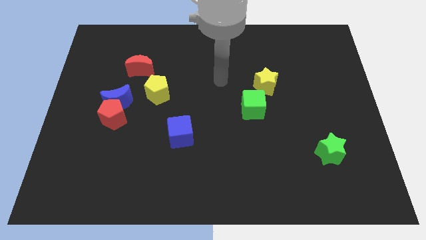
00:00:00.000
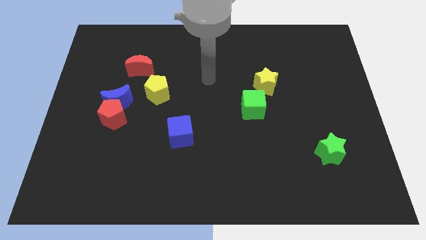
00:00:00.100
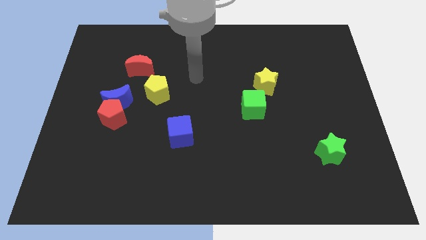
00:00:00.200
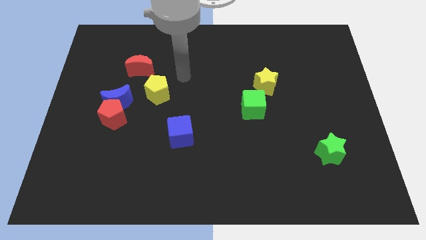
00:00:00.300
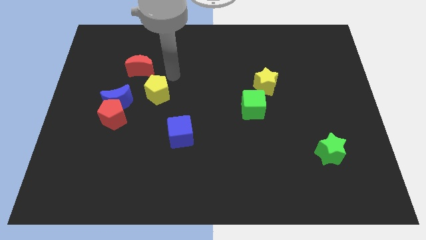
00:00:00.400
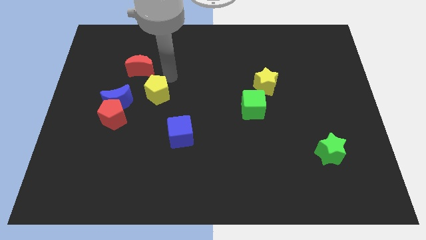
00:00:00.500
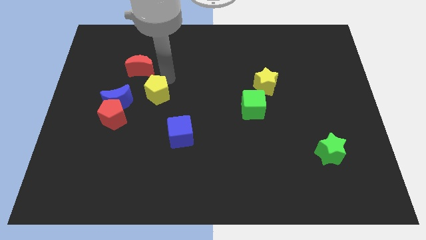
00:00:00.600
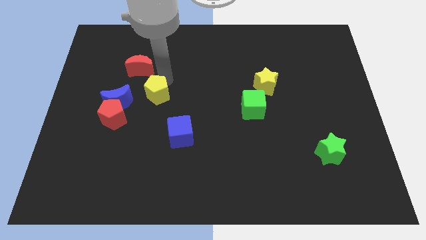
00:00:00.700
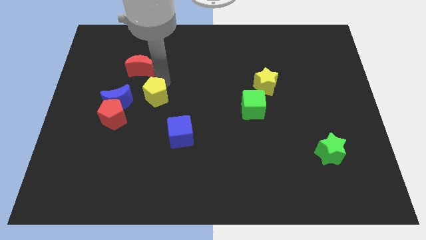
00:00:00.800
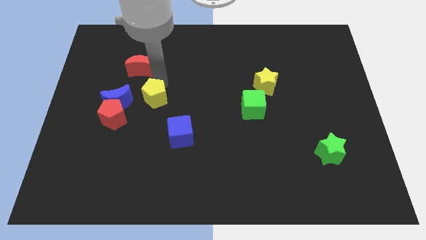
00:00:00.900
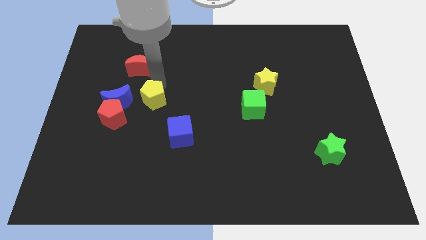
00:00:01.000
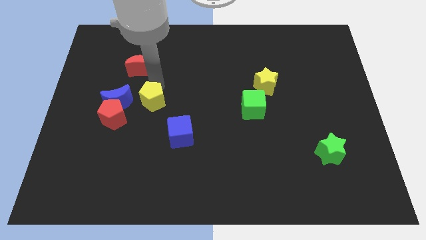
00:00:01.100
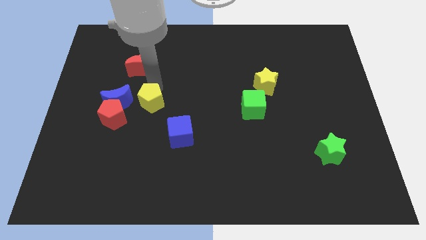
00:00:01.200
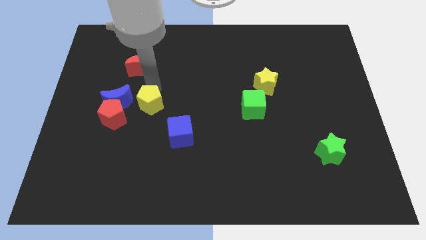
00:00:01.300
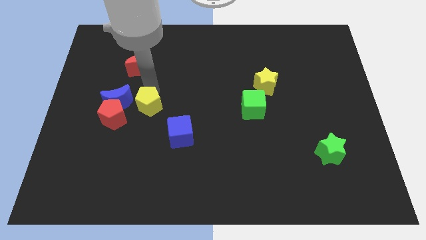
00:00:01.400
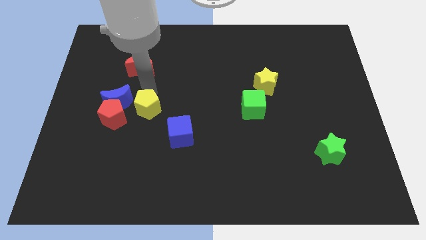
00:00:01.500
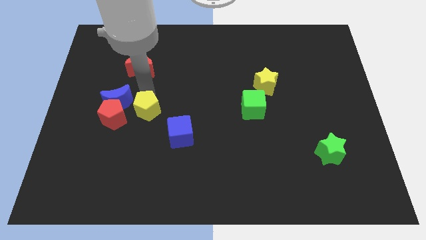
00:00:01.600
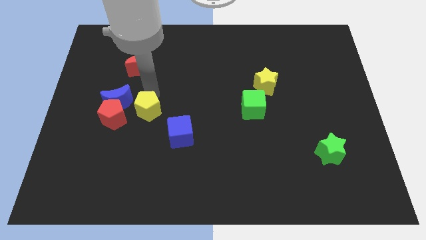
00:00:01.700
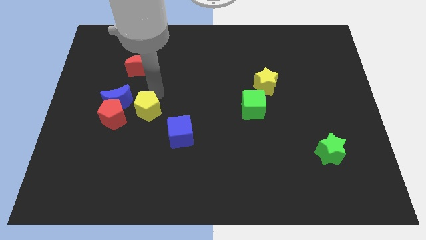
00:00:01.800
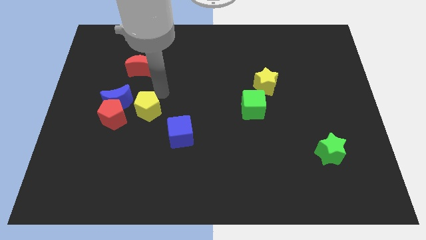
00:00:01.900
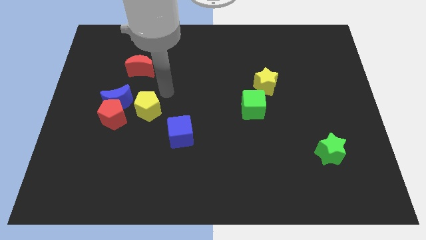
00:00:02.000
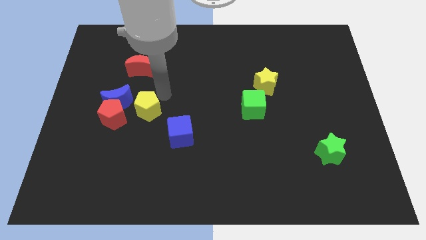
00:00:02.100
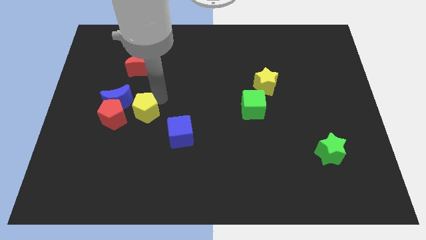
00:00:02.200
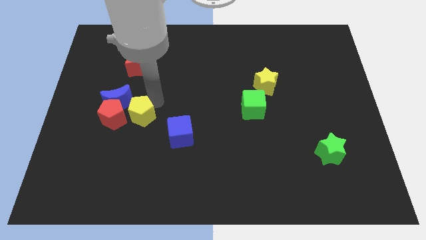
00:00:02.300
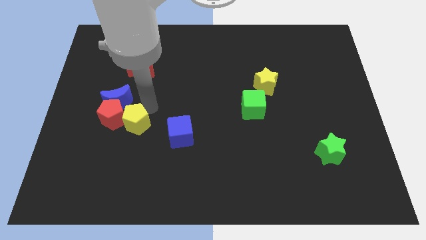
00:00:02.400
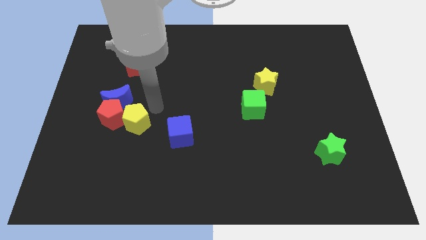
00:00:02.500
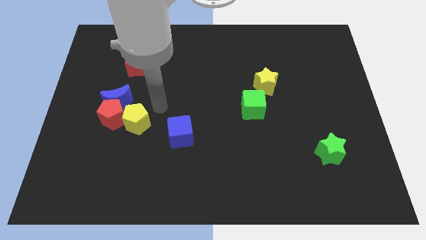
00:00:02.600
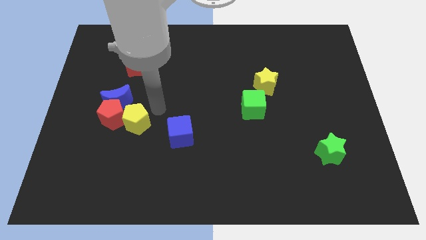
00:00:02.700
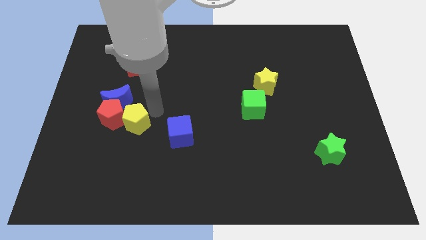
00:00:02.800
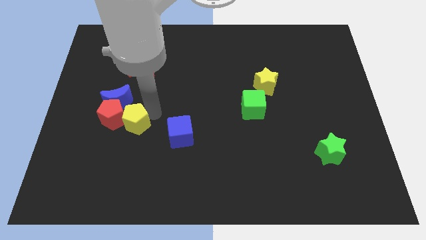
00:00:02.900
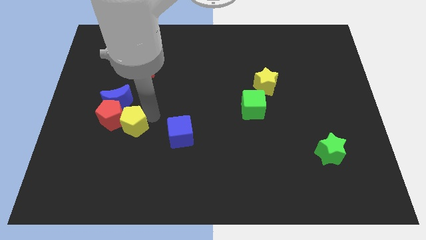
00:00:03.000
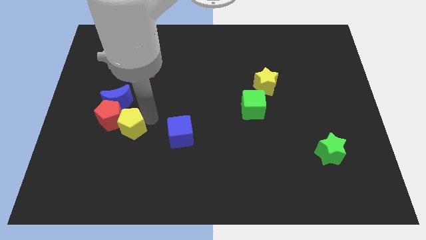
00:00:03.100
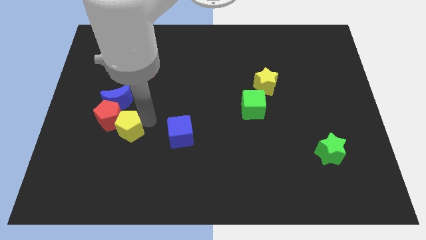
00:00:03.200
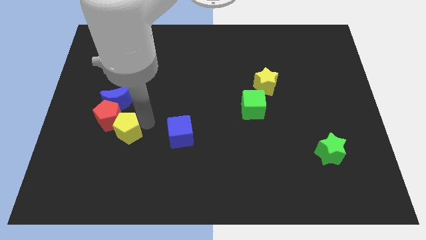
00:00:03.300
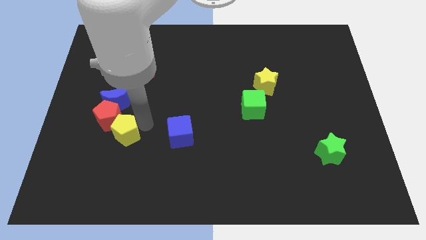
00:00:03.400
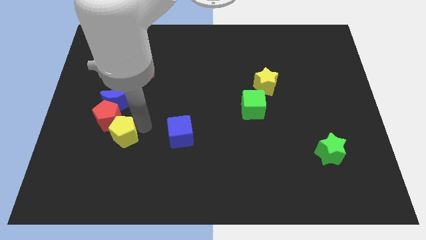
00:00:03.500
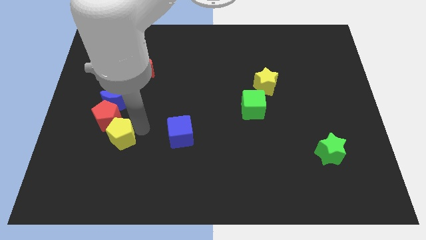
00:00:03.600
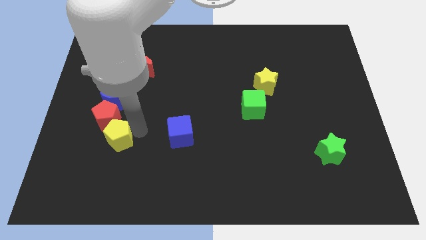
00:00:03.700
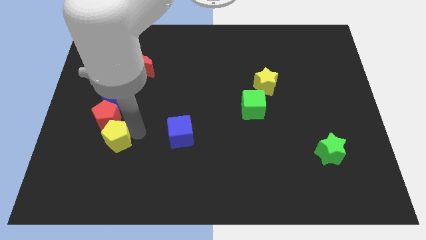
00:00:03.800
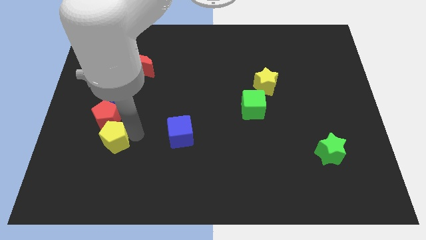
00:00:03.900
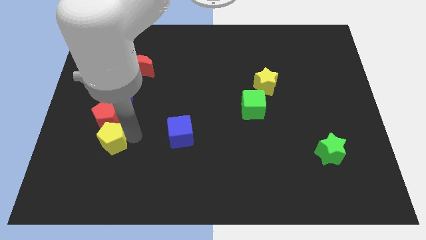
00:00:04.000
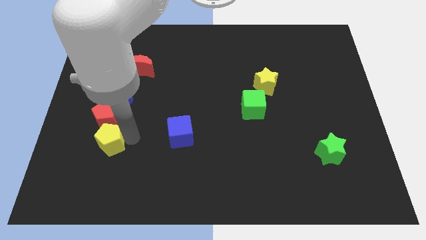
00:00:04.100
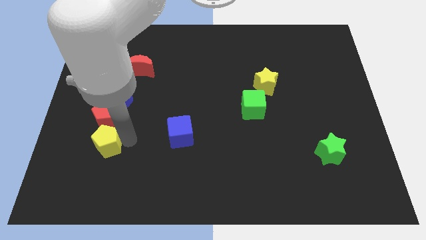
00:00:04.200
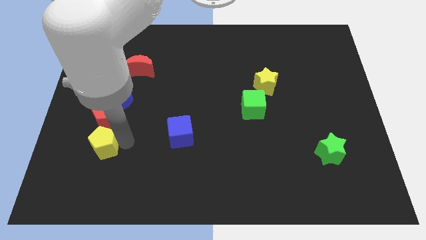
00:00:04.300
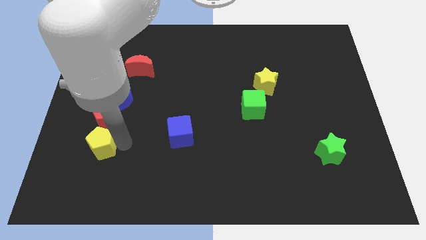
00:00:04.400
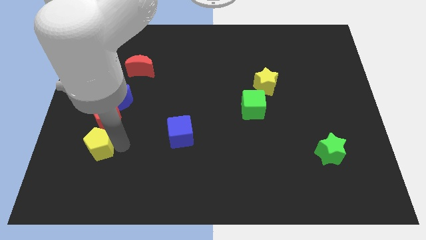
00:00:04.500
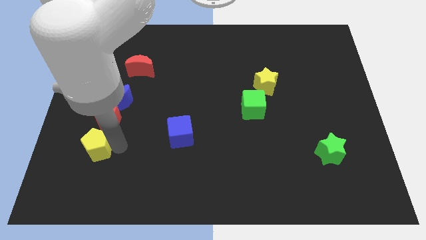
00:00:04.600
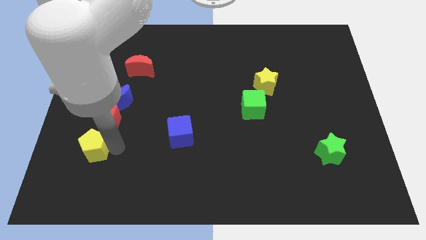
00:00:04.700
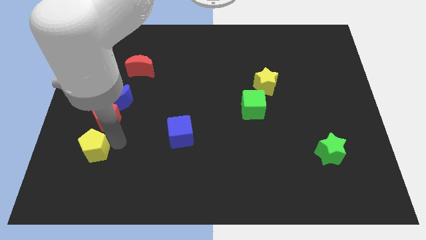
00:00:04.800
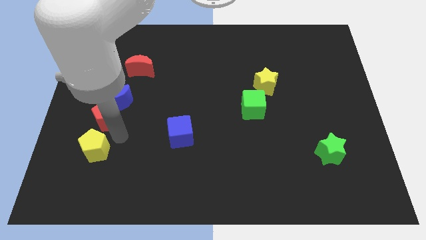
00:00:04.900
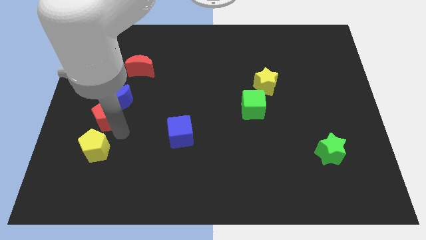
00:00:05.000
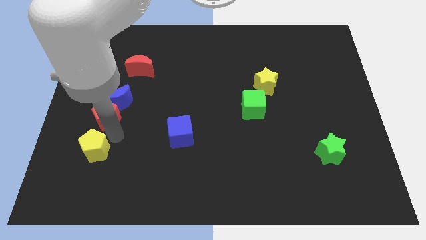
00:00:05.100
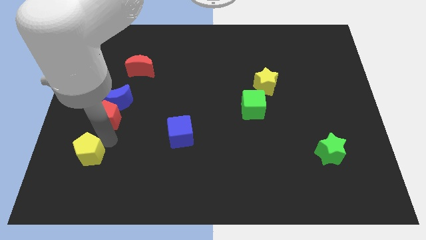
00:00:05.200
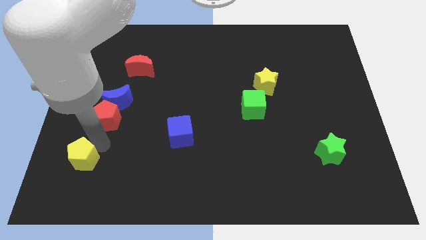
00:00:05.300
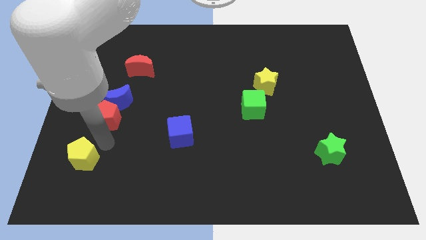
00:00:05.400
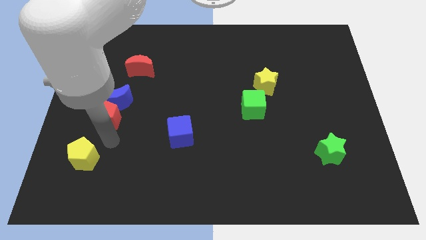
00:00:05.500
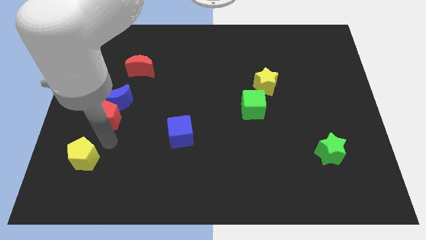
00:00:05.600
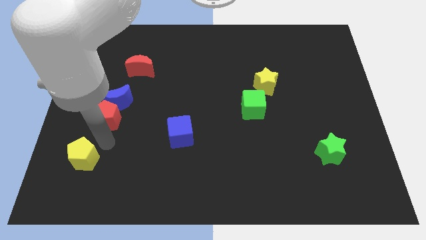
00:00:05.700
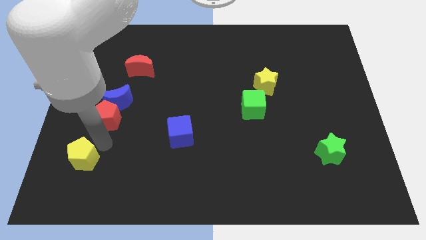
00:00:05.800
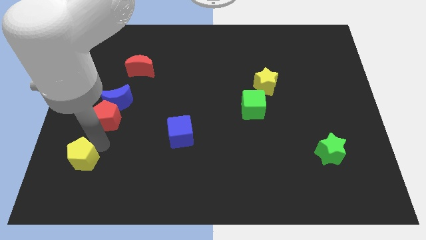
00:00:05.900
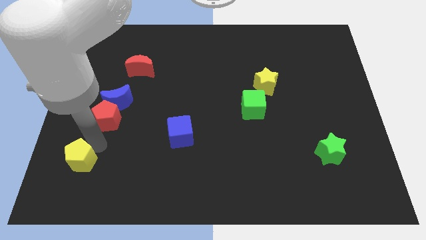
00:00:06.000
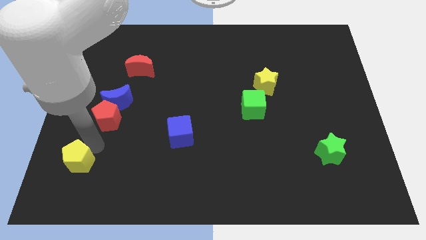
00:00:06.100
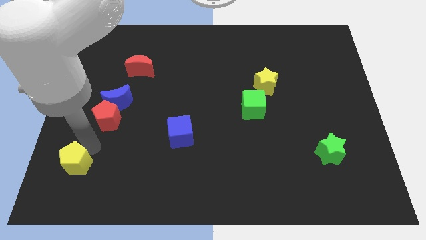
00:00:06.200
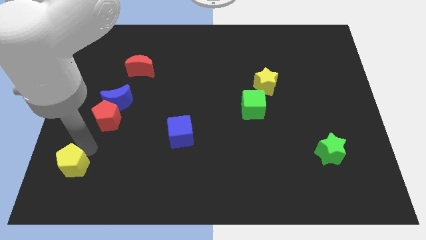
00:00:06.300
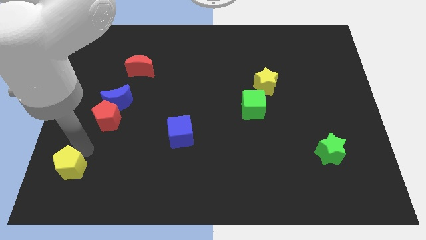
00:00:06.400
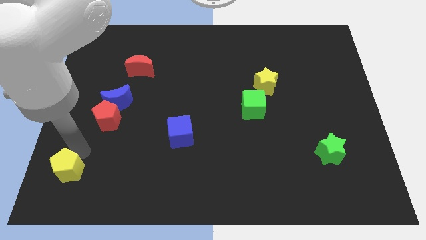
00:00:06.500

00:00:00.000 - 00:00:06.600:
move the yellow pentagon to the lower left corner

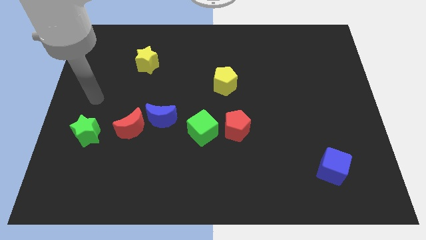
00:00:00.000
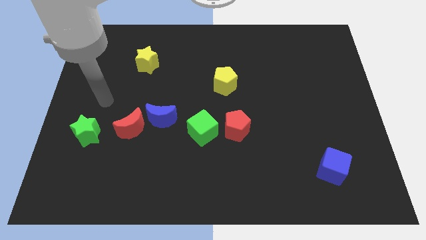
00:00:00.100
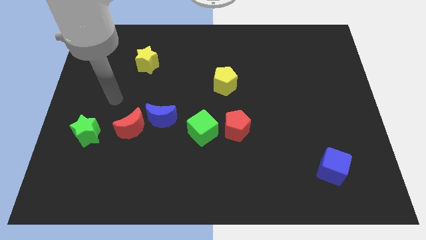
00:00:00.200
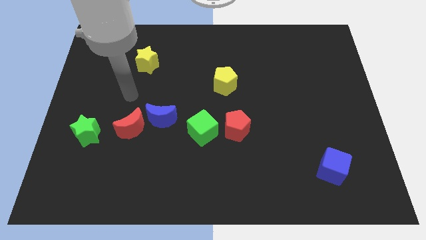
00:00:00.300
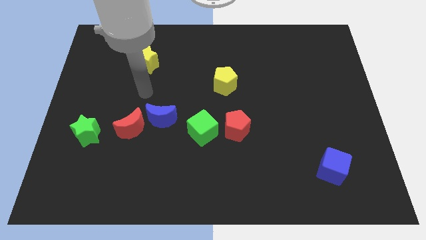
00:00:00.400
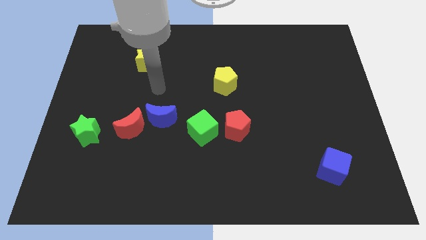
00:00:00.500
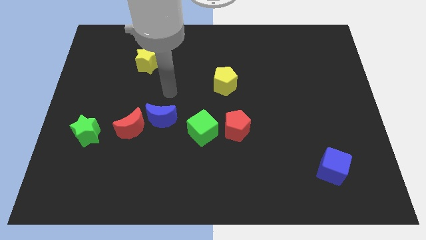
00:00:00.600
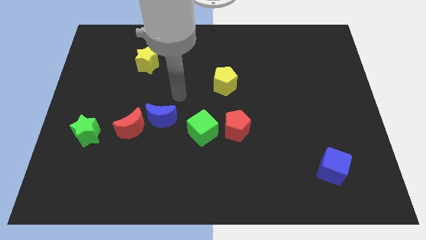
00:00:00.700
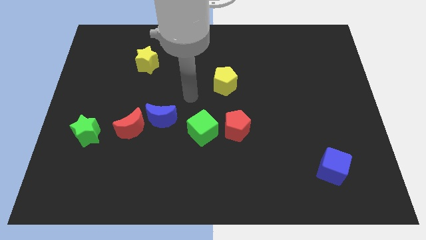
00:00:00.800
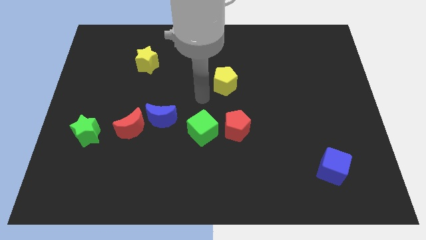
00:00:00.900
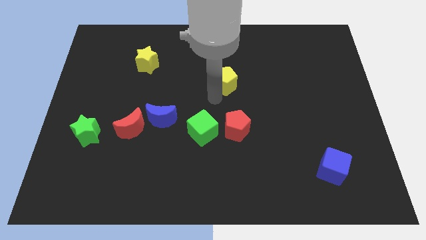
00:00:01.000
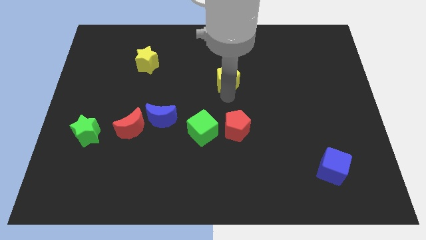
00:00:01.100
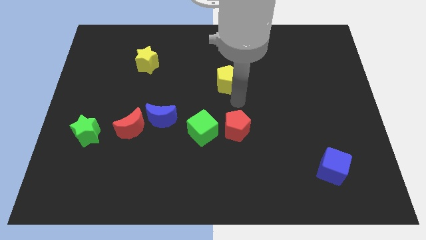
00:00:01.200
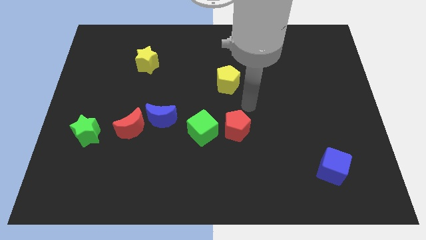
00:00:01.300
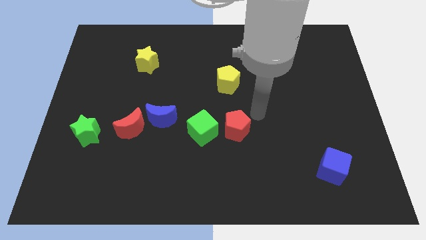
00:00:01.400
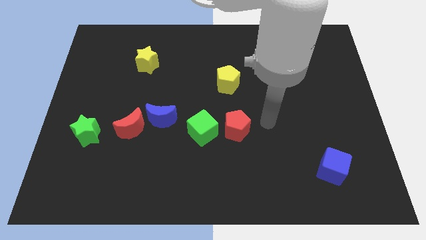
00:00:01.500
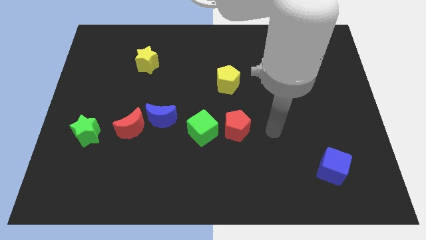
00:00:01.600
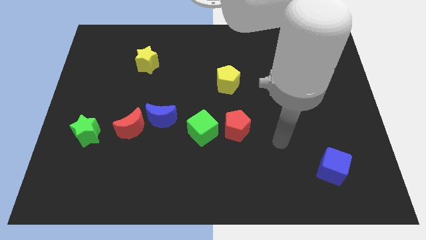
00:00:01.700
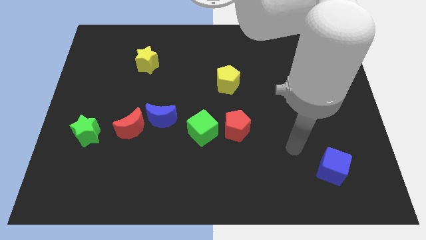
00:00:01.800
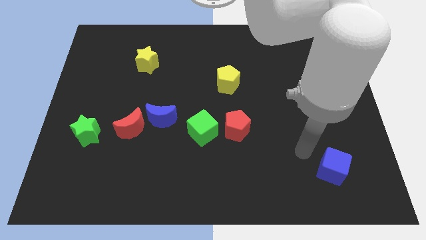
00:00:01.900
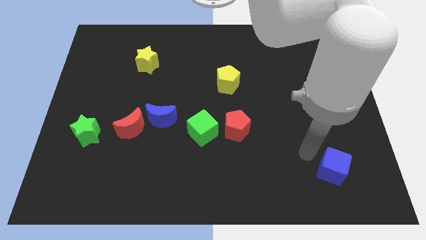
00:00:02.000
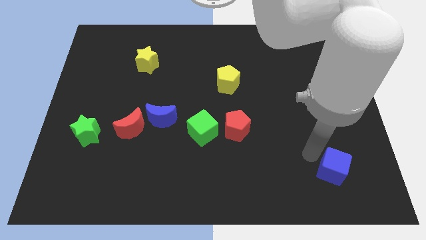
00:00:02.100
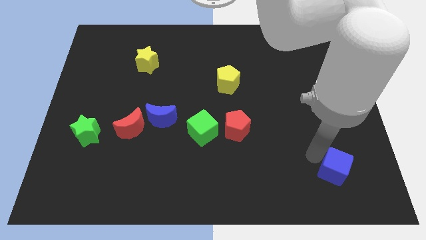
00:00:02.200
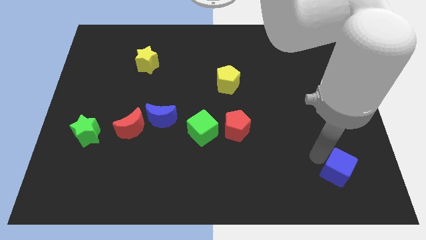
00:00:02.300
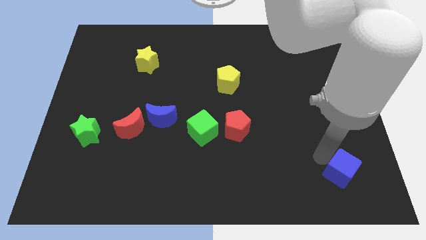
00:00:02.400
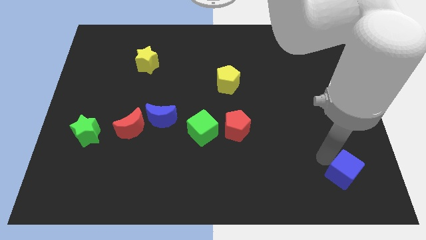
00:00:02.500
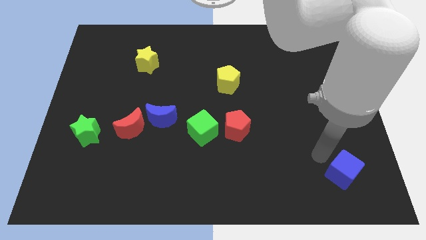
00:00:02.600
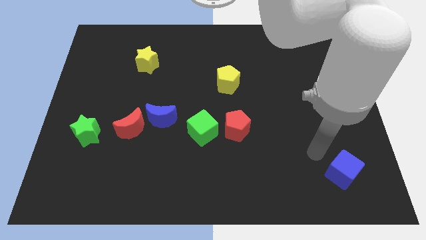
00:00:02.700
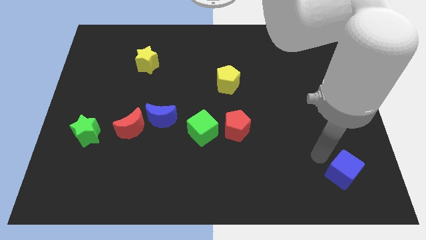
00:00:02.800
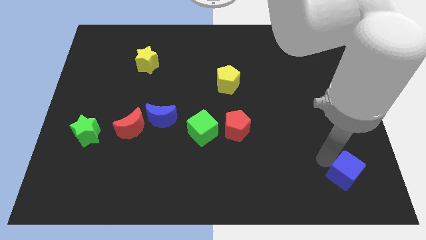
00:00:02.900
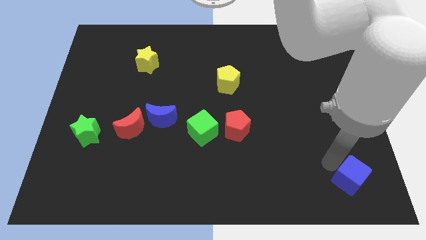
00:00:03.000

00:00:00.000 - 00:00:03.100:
move the blue cube to the bottom right corner
